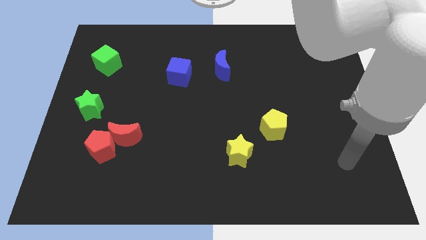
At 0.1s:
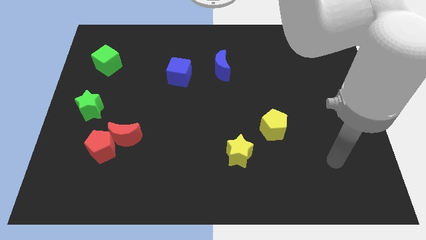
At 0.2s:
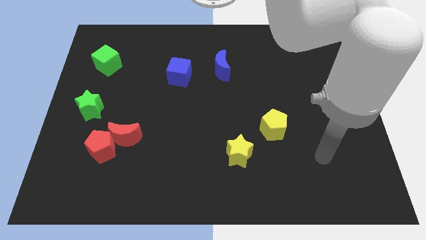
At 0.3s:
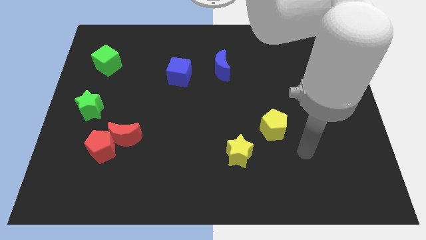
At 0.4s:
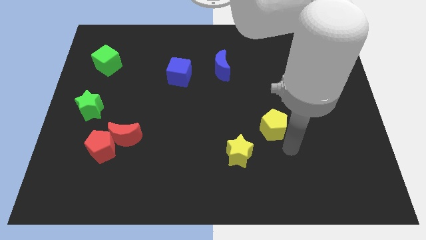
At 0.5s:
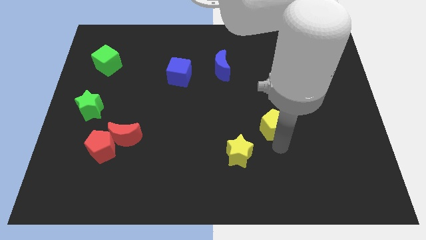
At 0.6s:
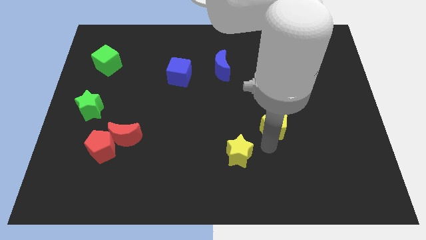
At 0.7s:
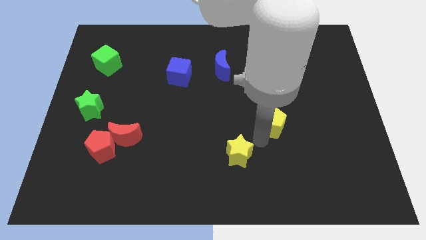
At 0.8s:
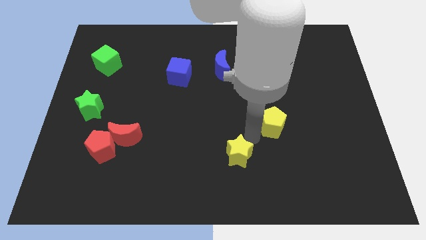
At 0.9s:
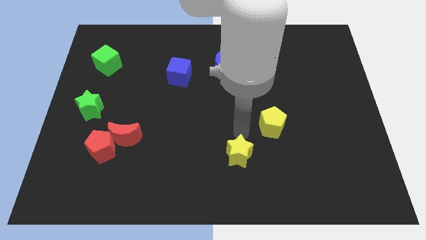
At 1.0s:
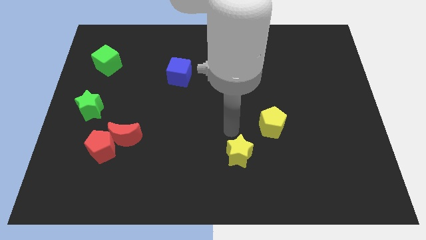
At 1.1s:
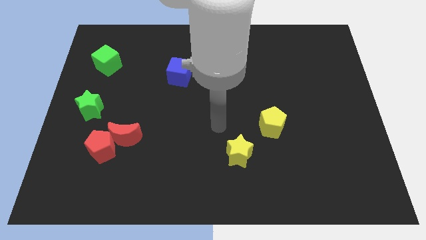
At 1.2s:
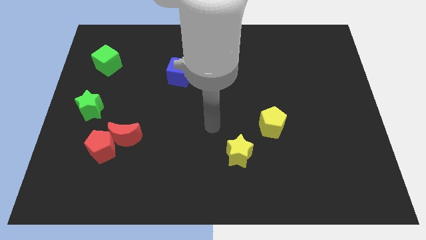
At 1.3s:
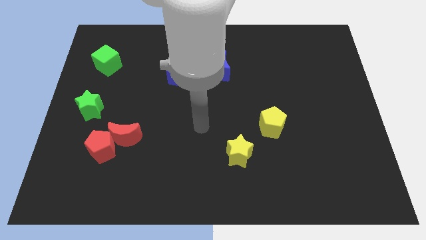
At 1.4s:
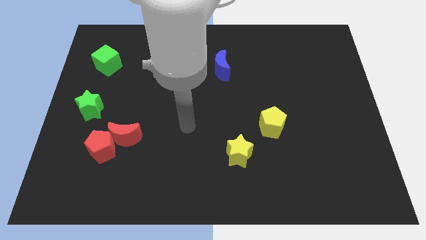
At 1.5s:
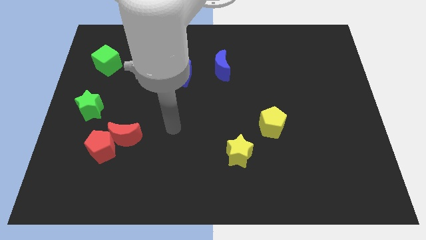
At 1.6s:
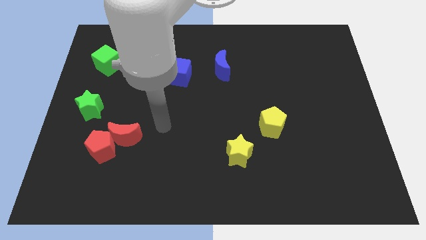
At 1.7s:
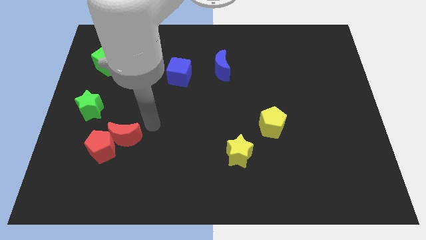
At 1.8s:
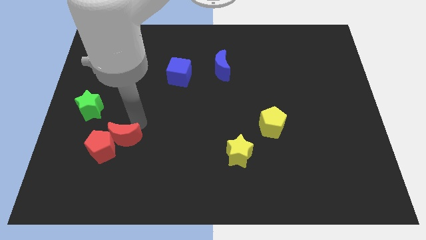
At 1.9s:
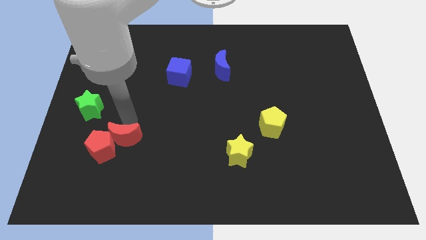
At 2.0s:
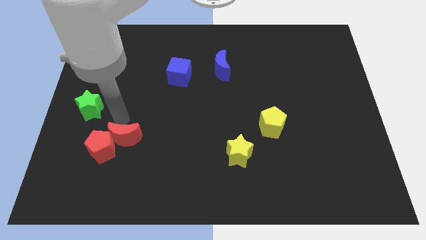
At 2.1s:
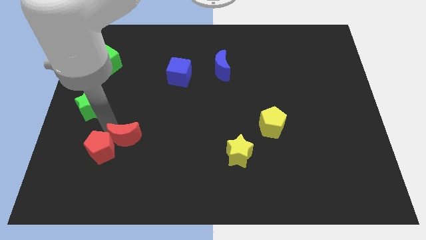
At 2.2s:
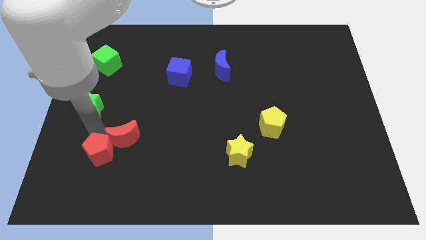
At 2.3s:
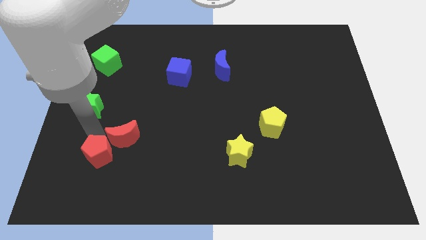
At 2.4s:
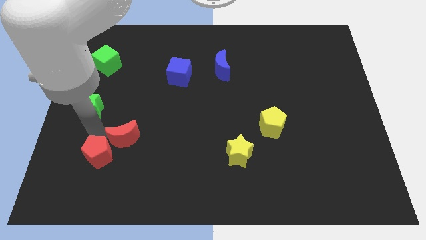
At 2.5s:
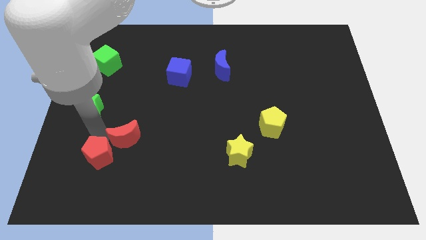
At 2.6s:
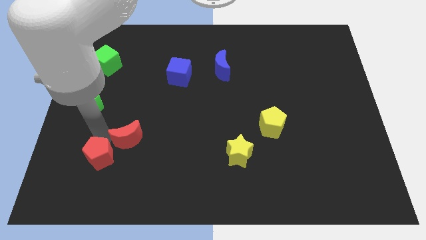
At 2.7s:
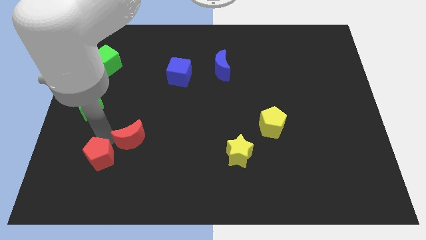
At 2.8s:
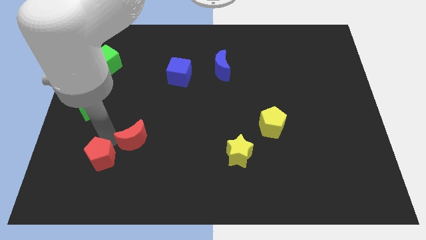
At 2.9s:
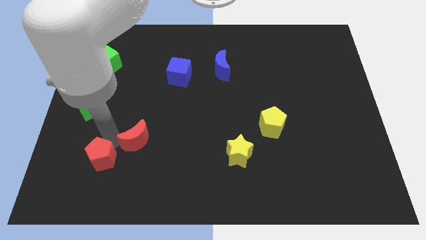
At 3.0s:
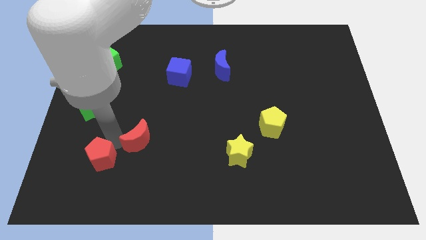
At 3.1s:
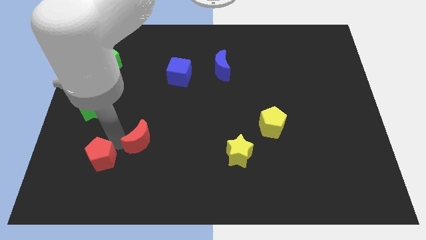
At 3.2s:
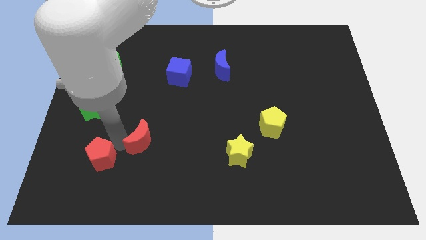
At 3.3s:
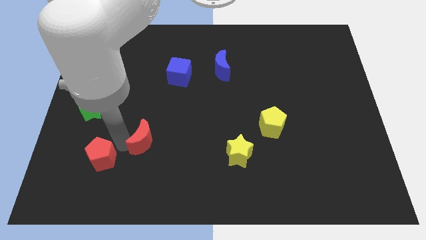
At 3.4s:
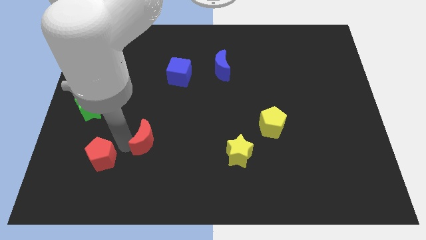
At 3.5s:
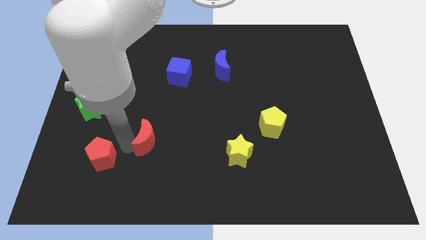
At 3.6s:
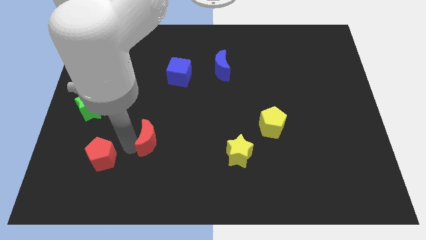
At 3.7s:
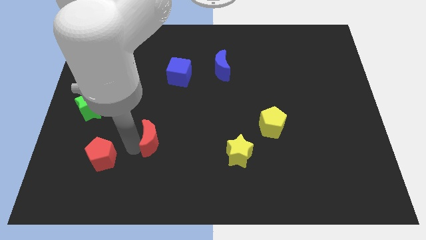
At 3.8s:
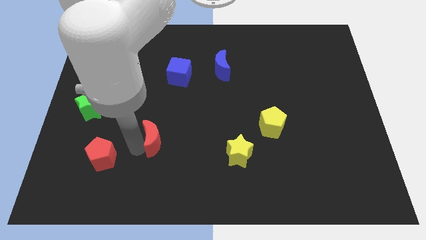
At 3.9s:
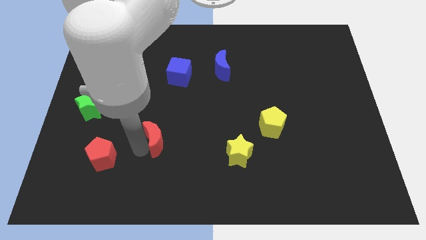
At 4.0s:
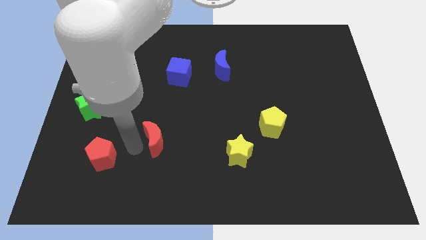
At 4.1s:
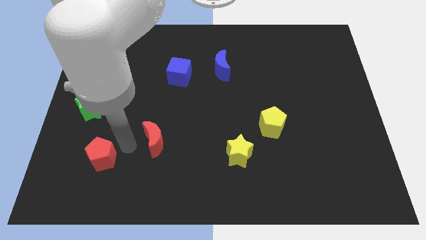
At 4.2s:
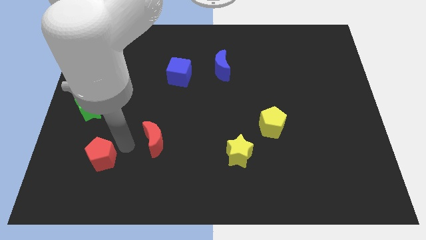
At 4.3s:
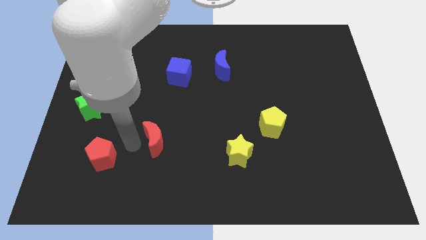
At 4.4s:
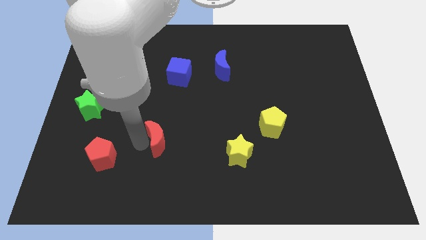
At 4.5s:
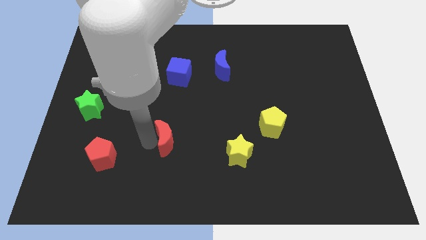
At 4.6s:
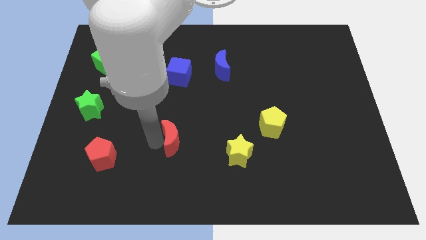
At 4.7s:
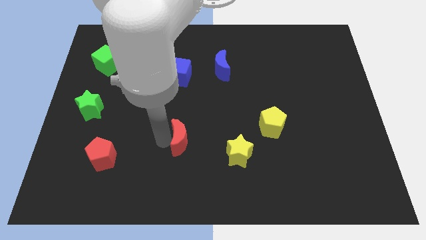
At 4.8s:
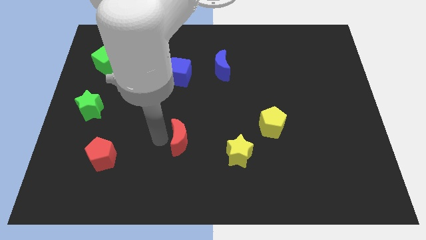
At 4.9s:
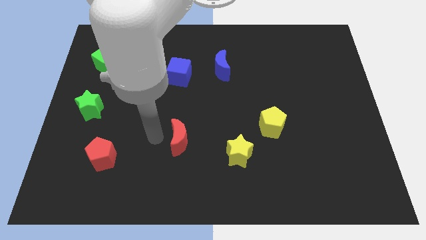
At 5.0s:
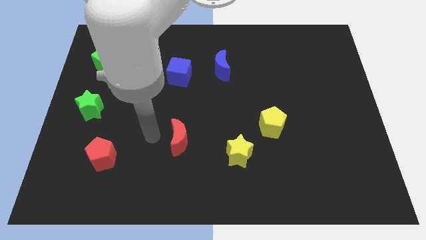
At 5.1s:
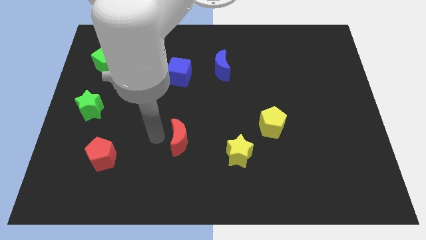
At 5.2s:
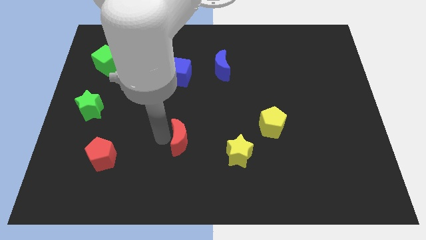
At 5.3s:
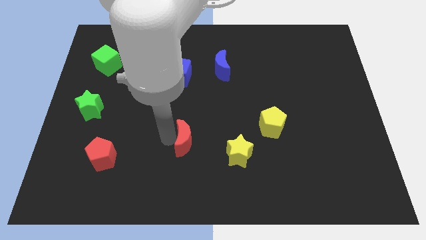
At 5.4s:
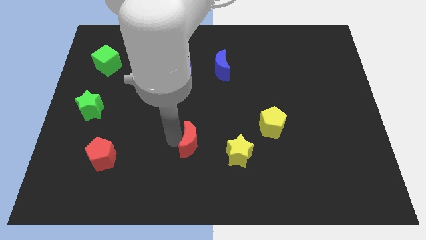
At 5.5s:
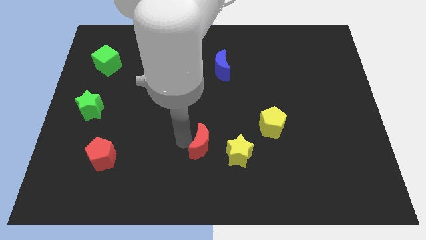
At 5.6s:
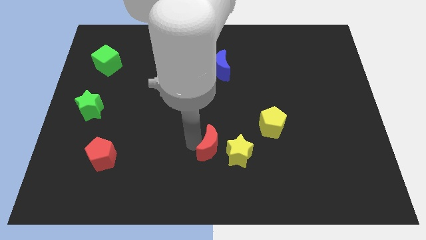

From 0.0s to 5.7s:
slide the red moon next to the yellow star

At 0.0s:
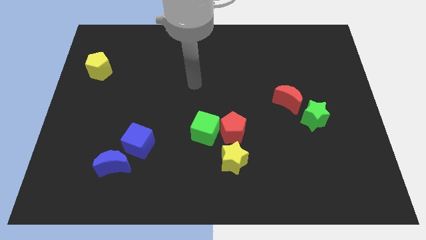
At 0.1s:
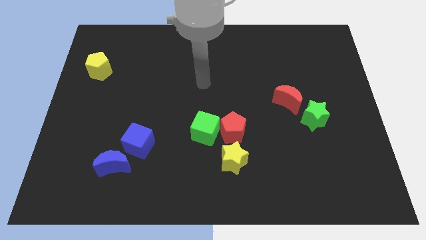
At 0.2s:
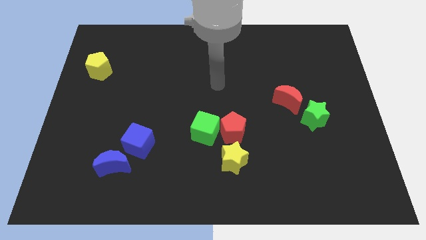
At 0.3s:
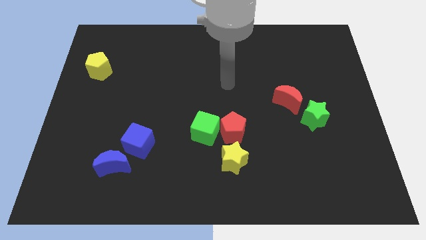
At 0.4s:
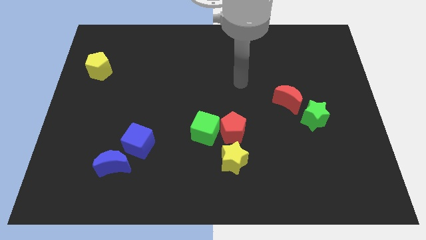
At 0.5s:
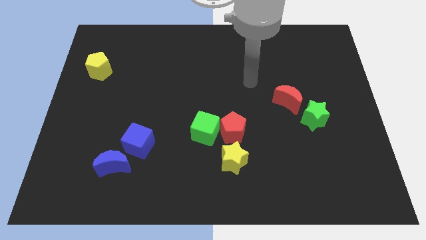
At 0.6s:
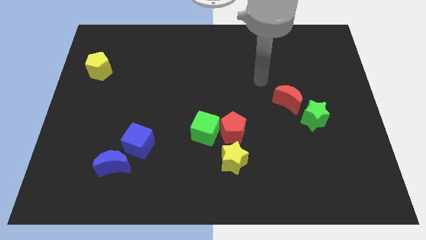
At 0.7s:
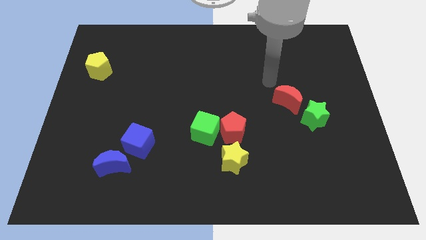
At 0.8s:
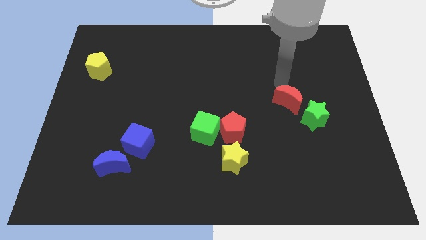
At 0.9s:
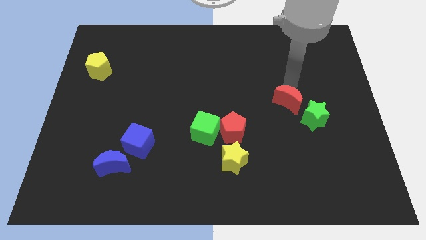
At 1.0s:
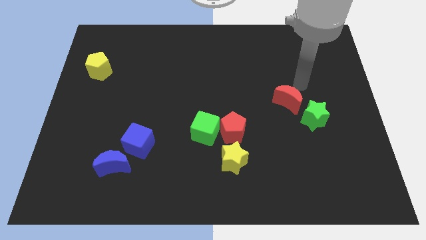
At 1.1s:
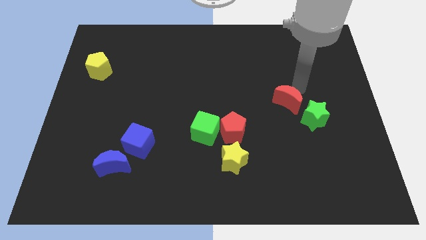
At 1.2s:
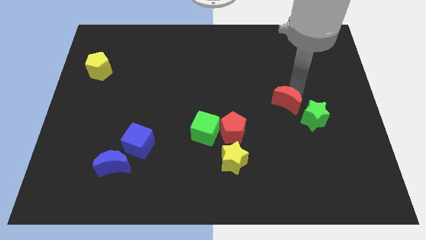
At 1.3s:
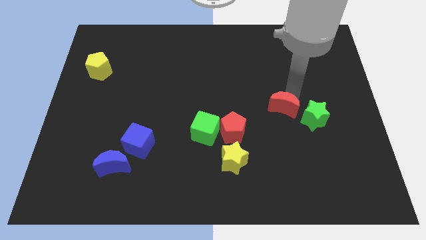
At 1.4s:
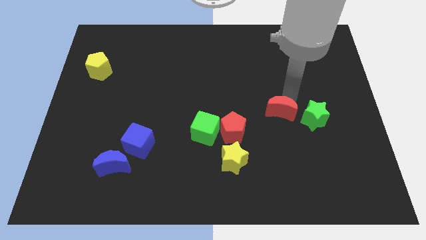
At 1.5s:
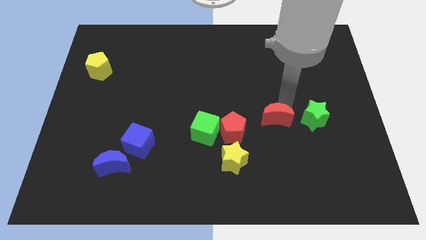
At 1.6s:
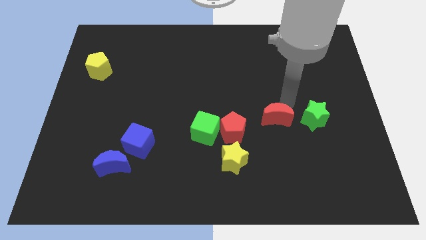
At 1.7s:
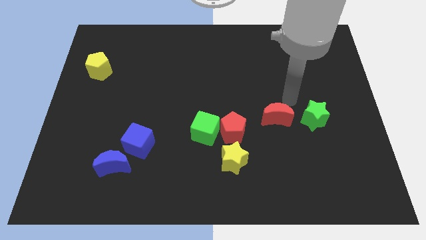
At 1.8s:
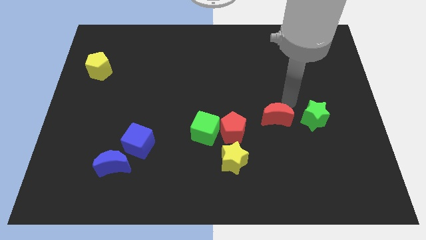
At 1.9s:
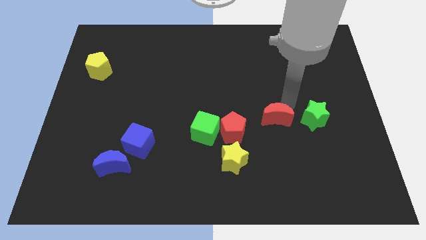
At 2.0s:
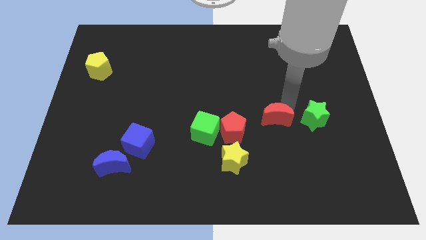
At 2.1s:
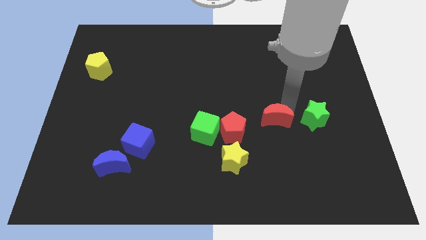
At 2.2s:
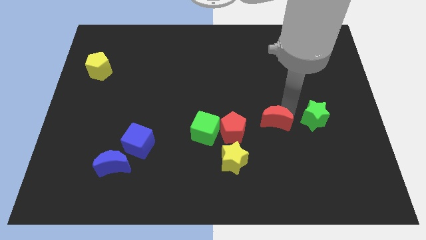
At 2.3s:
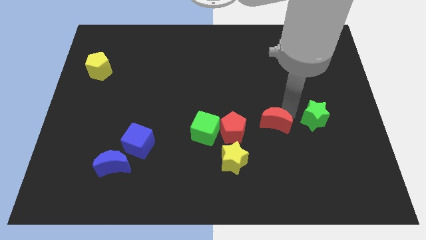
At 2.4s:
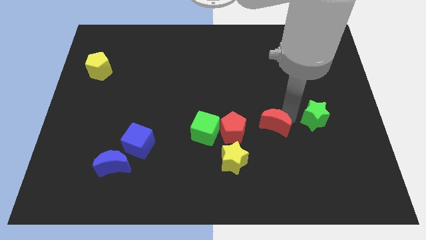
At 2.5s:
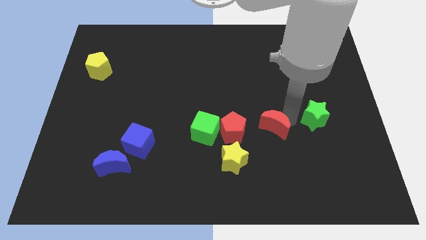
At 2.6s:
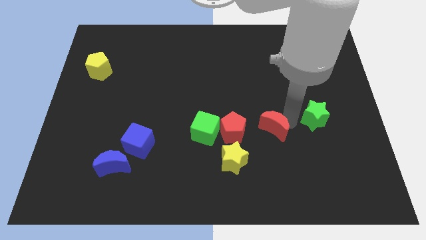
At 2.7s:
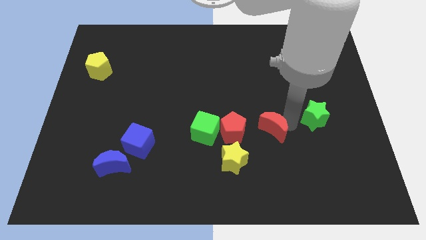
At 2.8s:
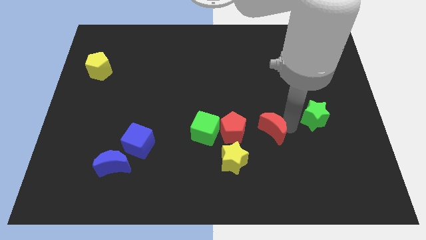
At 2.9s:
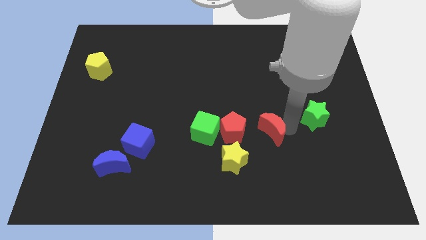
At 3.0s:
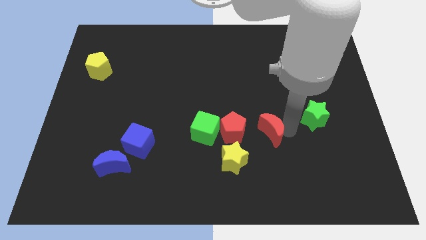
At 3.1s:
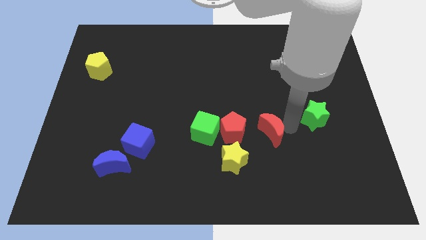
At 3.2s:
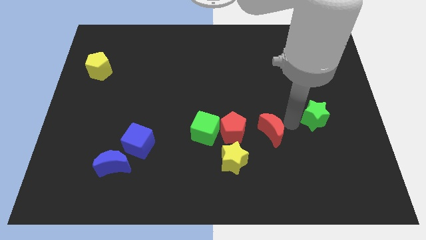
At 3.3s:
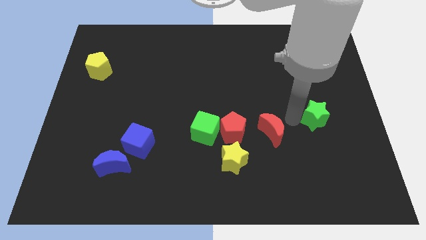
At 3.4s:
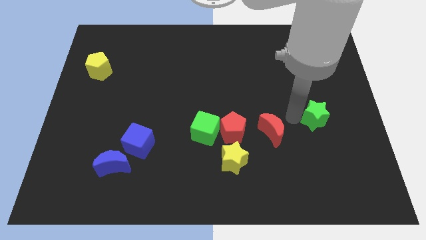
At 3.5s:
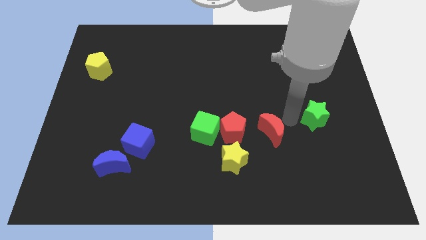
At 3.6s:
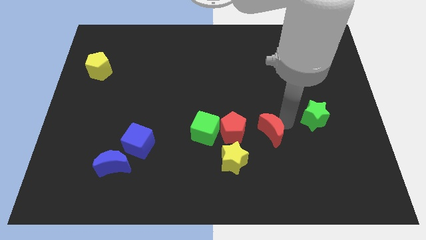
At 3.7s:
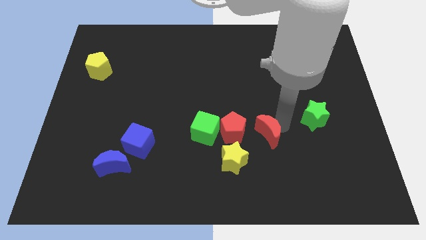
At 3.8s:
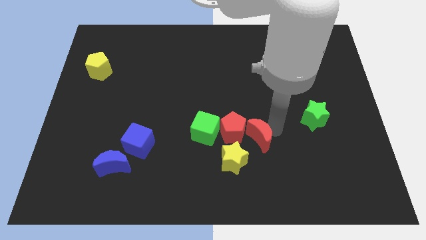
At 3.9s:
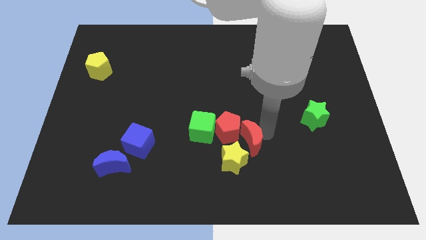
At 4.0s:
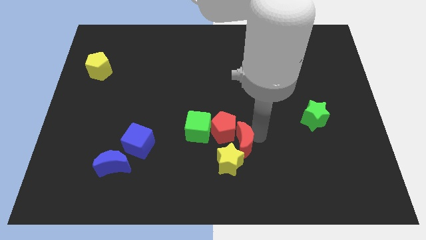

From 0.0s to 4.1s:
push the red moon next to the yellow star
